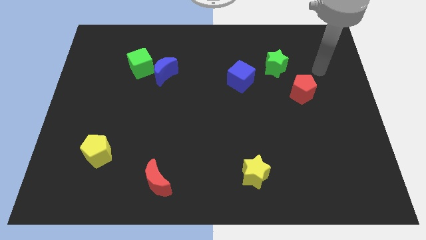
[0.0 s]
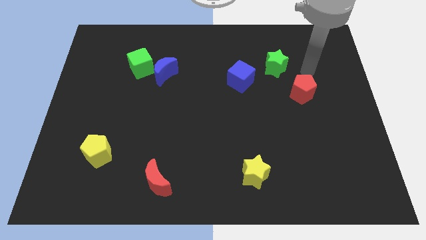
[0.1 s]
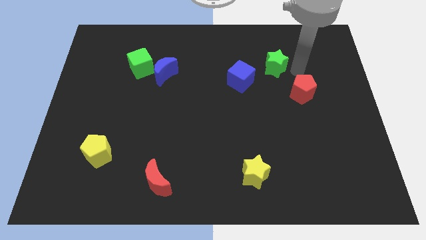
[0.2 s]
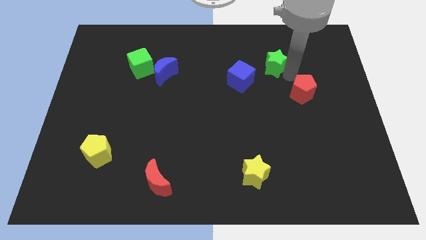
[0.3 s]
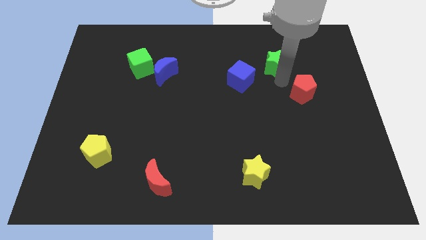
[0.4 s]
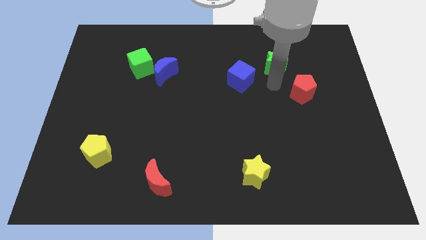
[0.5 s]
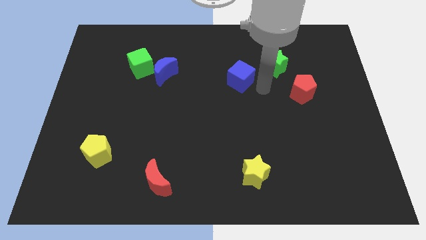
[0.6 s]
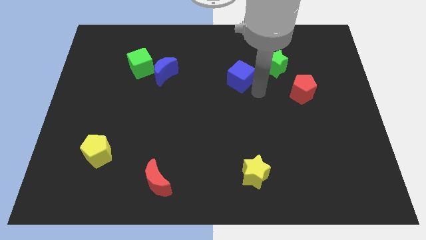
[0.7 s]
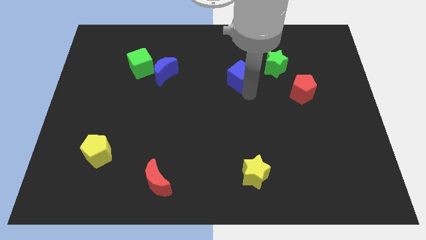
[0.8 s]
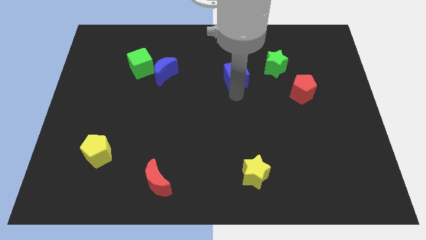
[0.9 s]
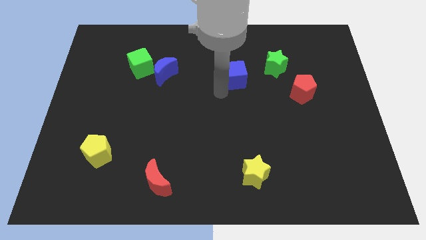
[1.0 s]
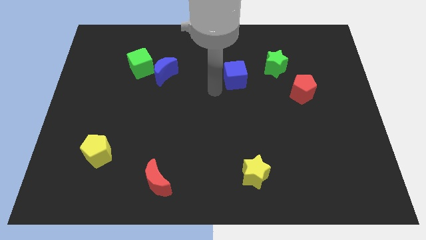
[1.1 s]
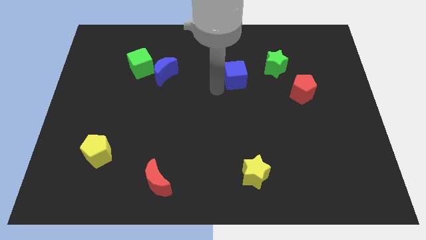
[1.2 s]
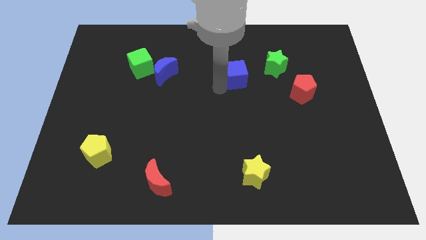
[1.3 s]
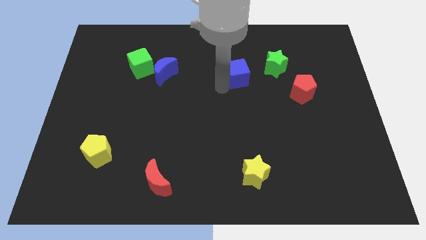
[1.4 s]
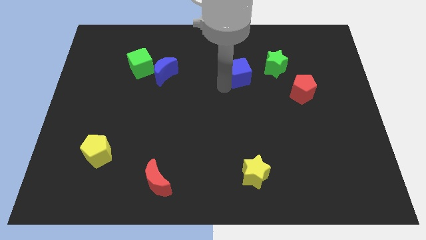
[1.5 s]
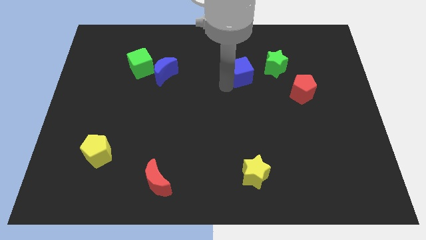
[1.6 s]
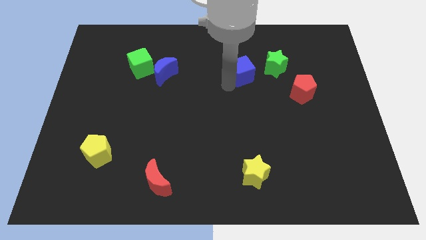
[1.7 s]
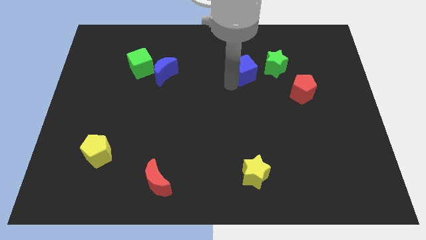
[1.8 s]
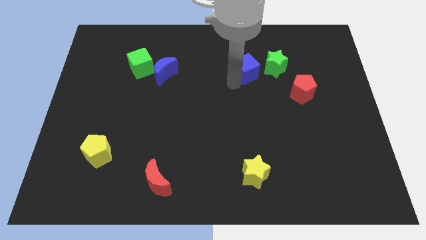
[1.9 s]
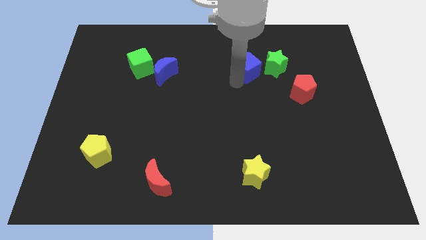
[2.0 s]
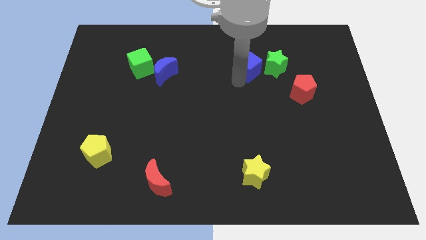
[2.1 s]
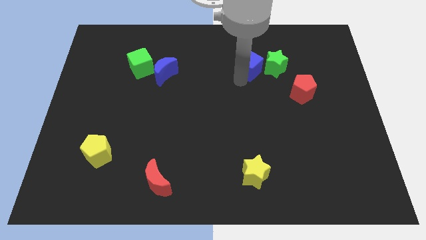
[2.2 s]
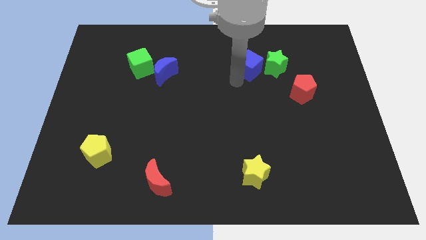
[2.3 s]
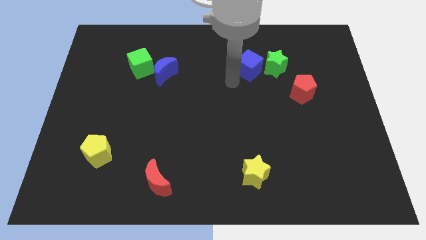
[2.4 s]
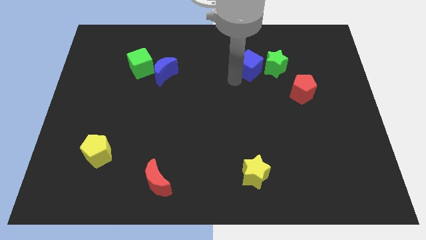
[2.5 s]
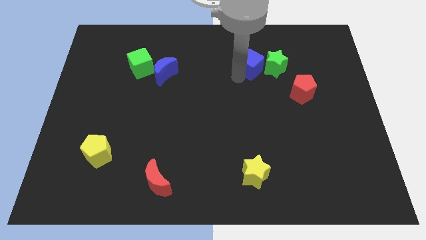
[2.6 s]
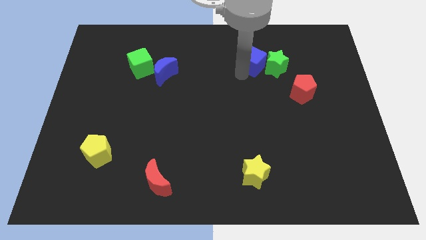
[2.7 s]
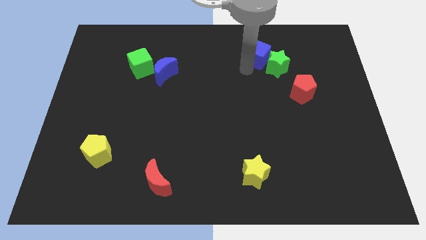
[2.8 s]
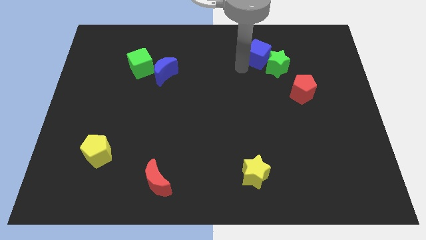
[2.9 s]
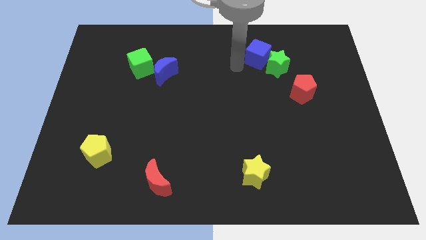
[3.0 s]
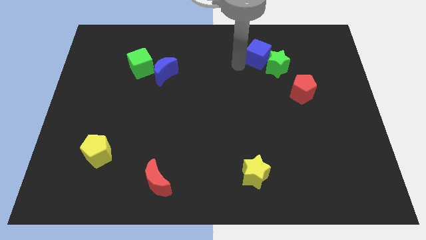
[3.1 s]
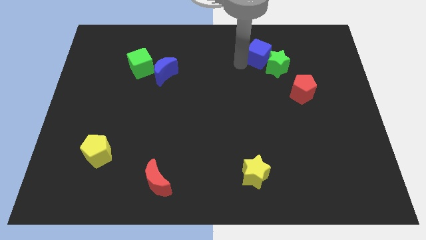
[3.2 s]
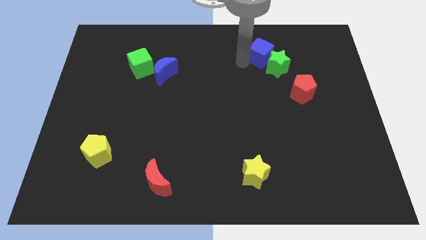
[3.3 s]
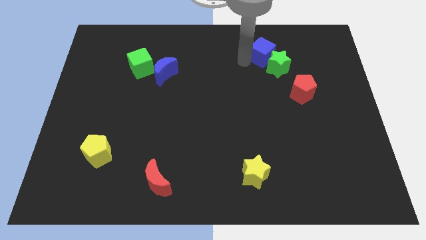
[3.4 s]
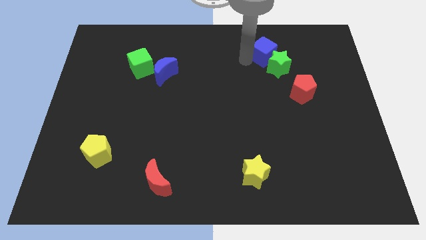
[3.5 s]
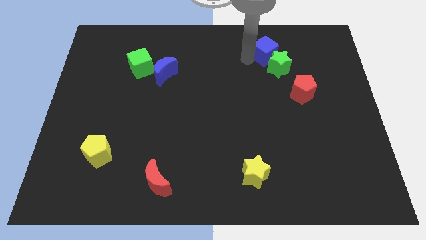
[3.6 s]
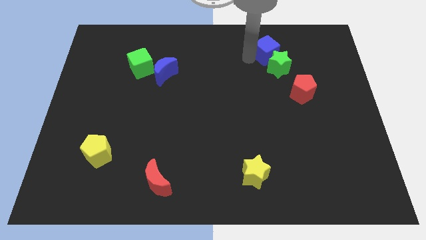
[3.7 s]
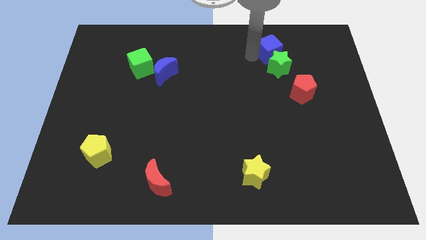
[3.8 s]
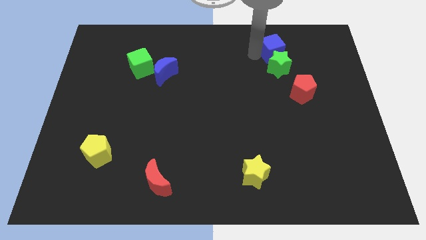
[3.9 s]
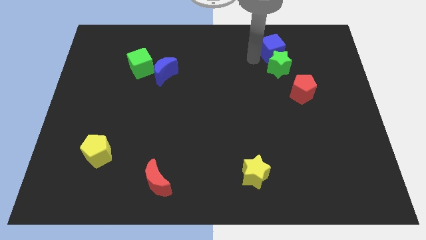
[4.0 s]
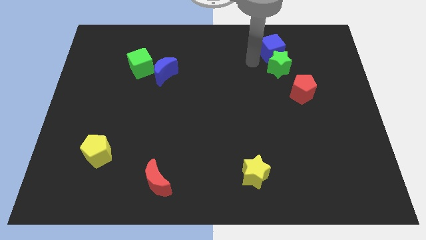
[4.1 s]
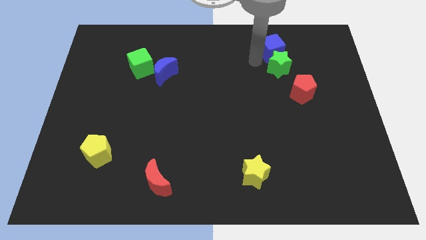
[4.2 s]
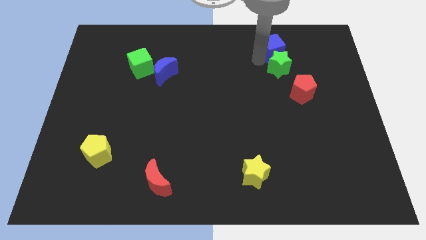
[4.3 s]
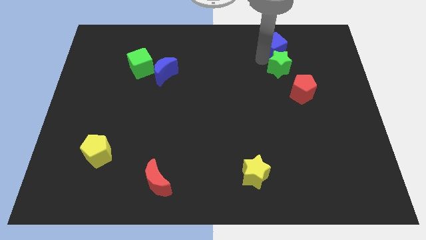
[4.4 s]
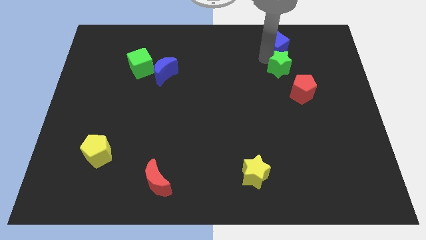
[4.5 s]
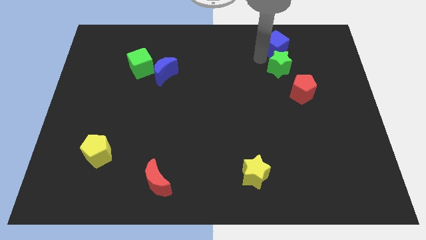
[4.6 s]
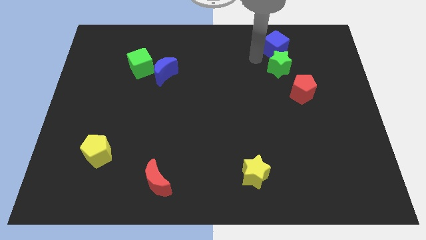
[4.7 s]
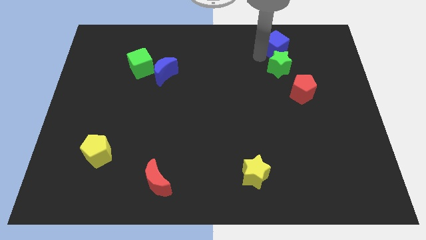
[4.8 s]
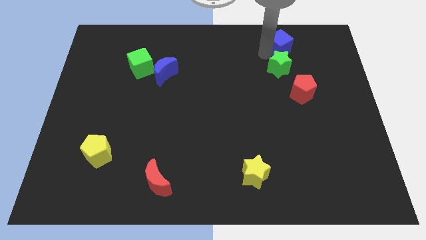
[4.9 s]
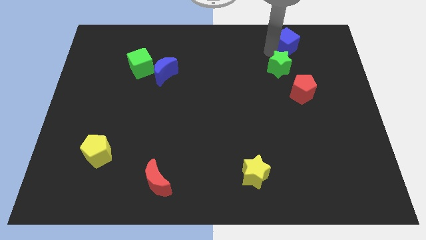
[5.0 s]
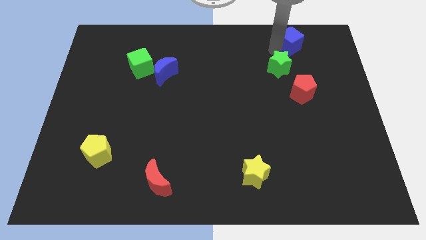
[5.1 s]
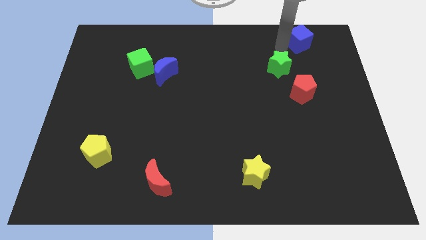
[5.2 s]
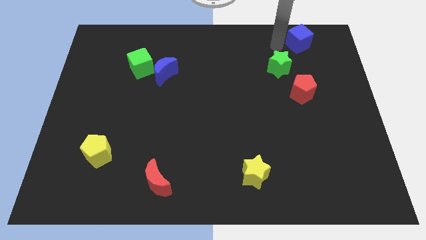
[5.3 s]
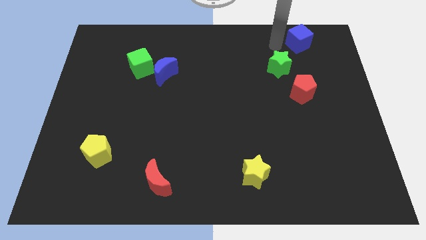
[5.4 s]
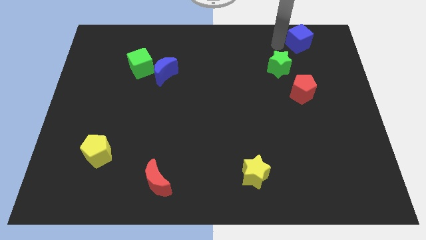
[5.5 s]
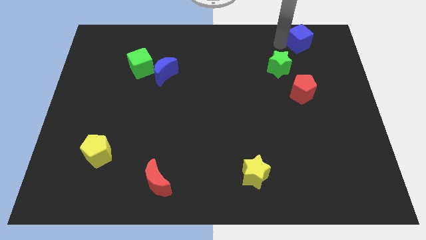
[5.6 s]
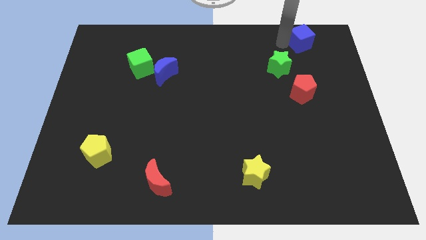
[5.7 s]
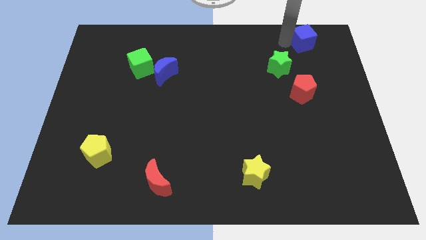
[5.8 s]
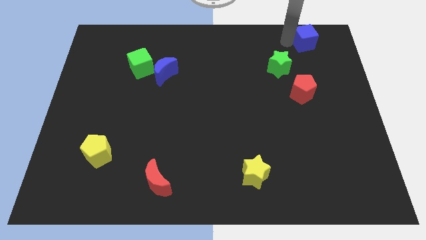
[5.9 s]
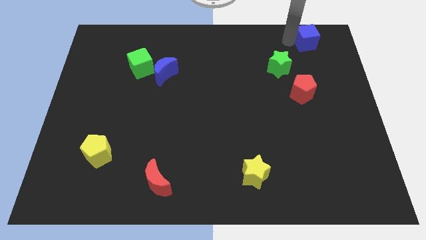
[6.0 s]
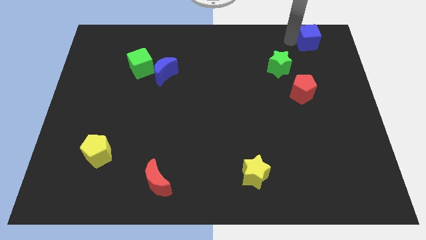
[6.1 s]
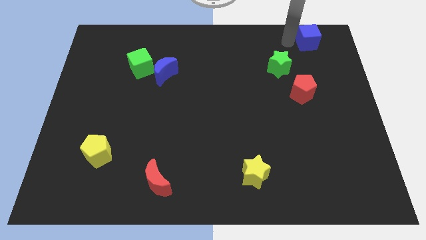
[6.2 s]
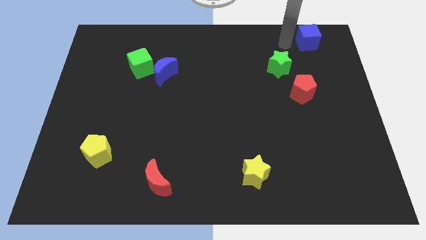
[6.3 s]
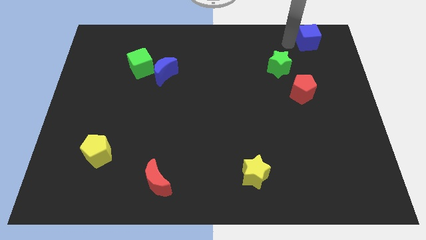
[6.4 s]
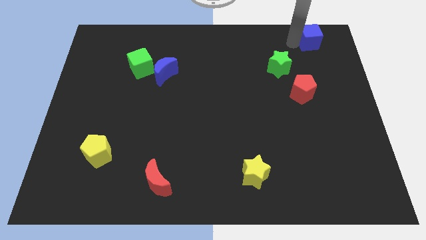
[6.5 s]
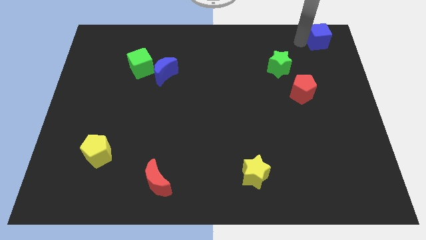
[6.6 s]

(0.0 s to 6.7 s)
move the blue cube to the upper right corner

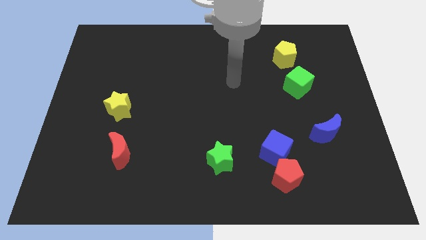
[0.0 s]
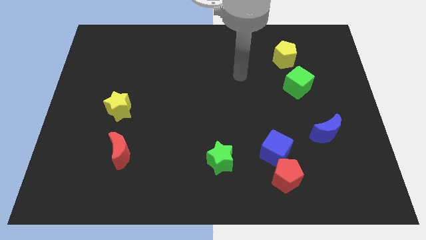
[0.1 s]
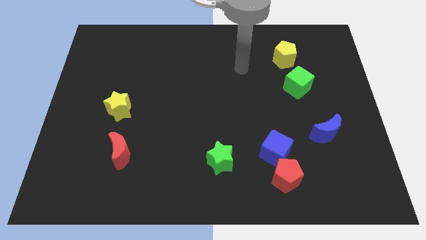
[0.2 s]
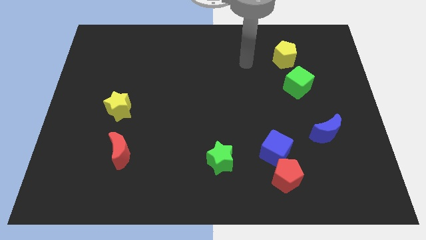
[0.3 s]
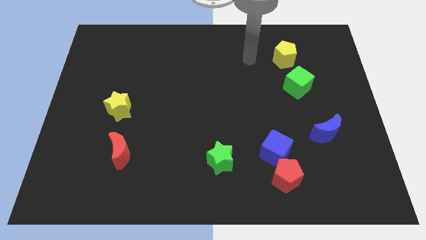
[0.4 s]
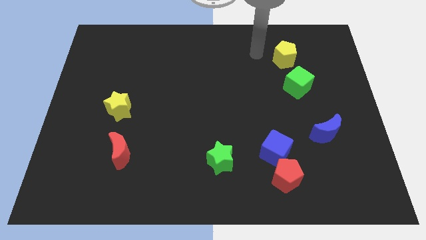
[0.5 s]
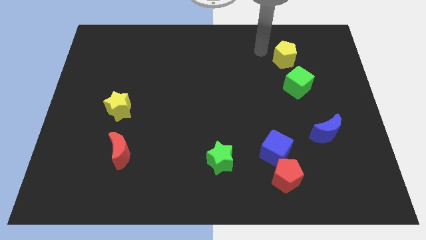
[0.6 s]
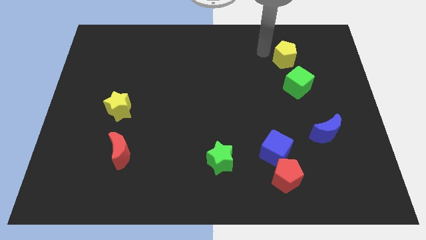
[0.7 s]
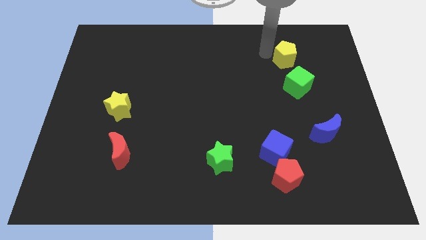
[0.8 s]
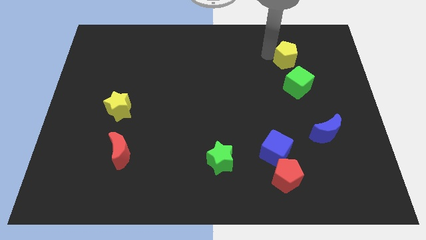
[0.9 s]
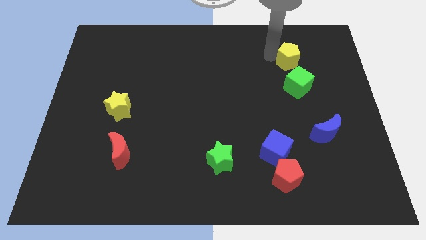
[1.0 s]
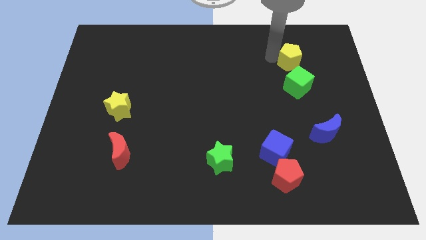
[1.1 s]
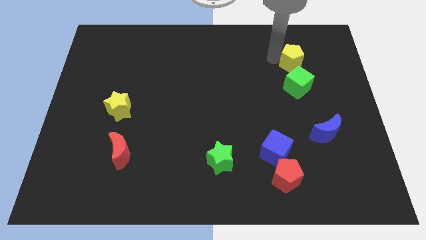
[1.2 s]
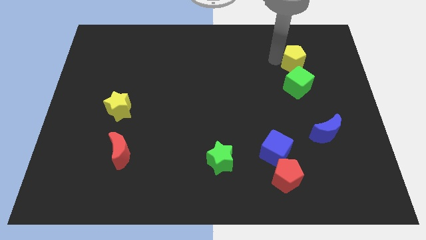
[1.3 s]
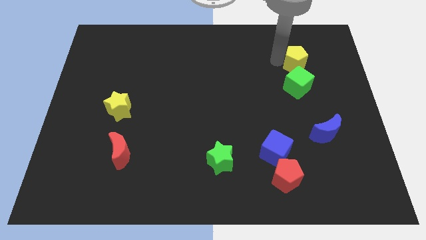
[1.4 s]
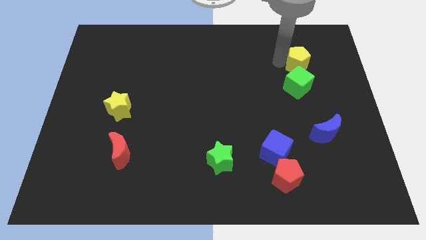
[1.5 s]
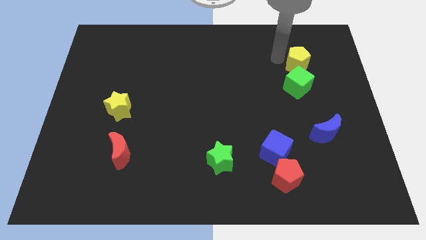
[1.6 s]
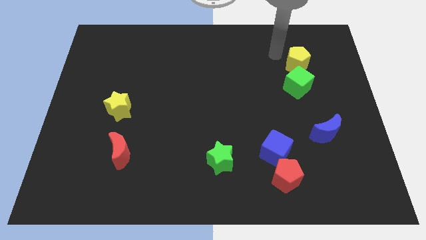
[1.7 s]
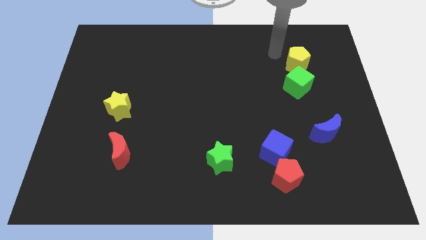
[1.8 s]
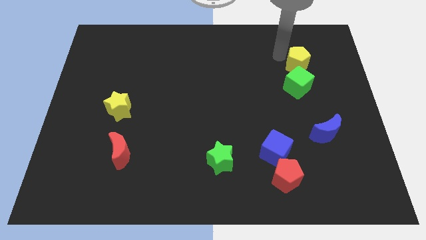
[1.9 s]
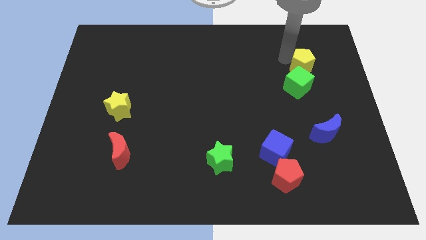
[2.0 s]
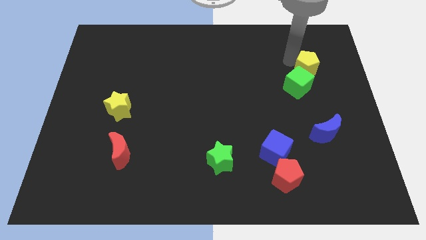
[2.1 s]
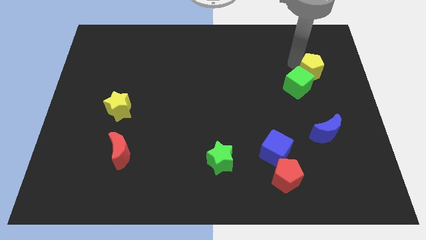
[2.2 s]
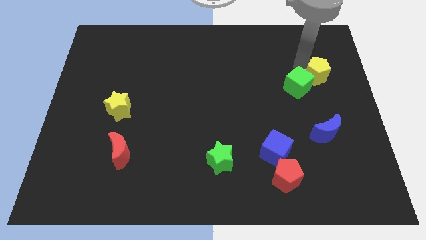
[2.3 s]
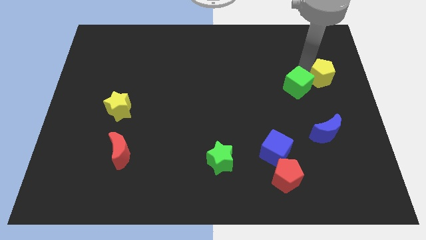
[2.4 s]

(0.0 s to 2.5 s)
push the yellow pentagon to the right side of the board
